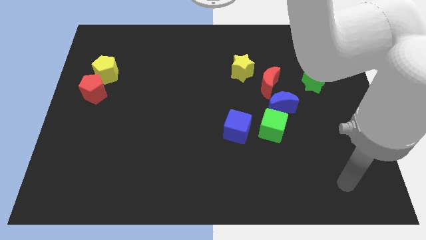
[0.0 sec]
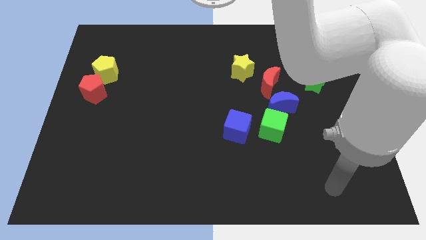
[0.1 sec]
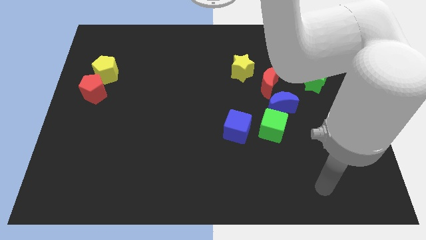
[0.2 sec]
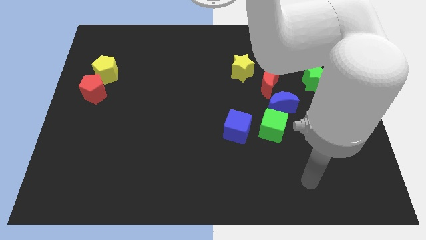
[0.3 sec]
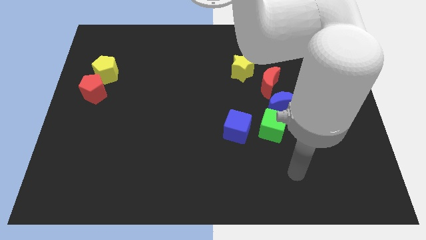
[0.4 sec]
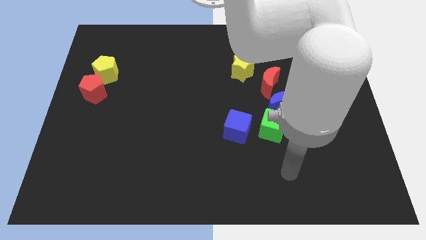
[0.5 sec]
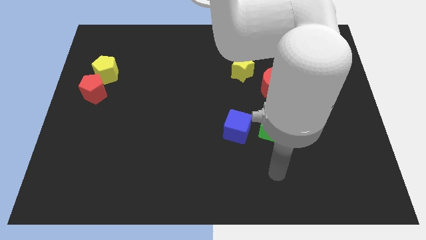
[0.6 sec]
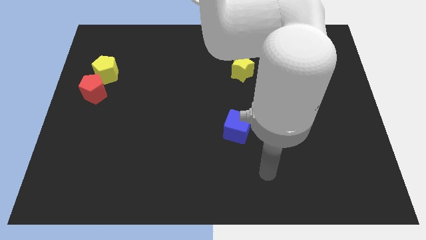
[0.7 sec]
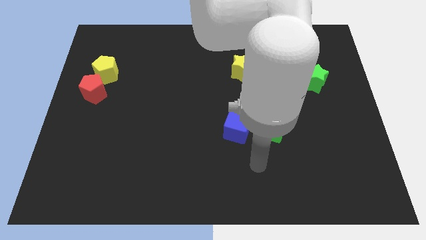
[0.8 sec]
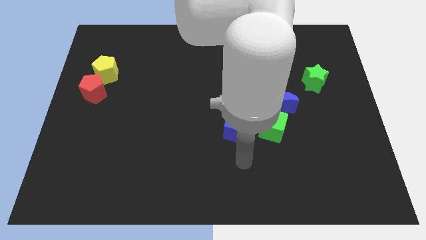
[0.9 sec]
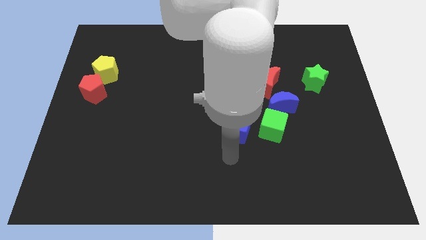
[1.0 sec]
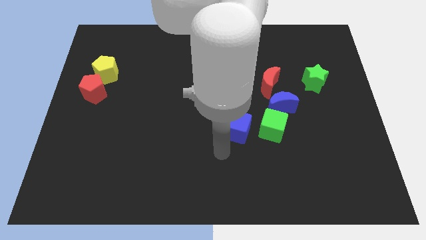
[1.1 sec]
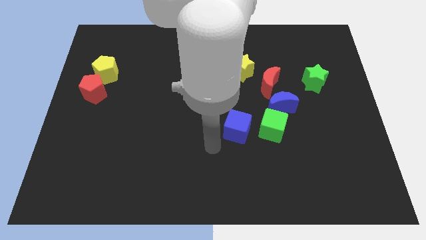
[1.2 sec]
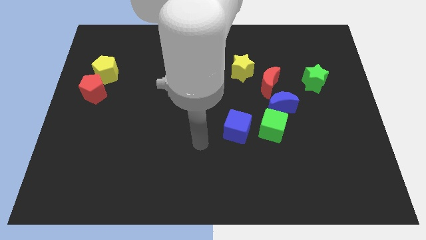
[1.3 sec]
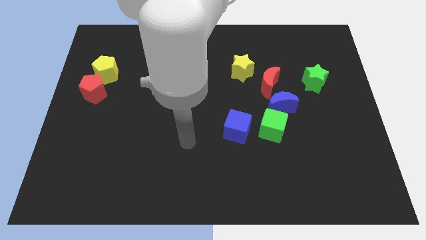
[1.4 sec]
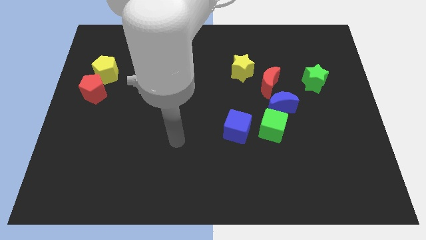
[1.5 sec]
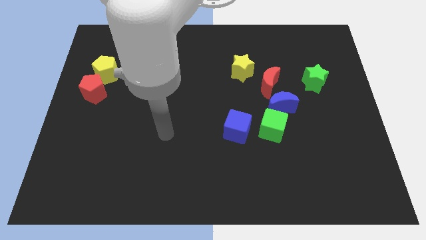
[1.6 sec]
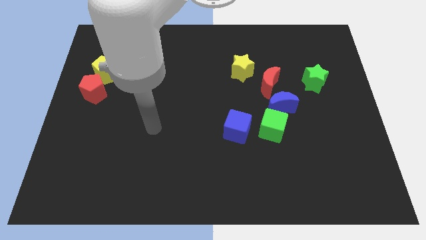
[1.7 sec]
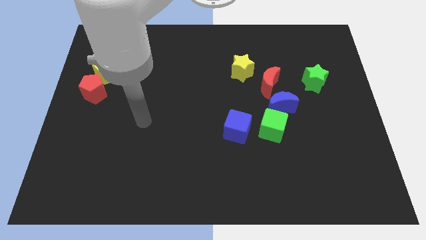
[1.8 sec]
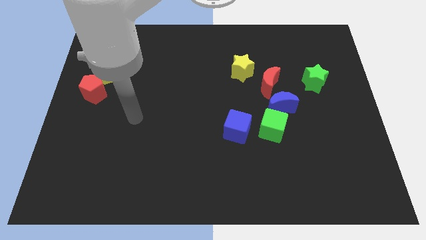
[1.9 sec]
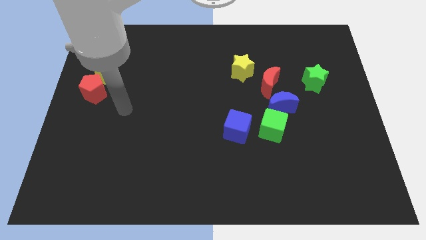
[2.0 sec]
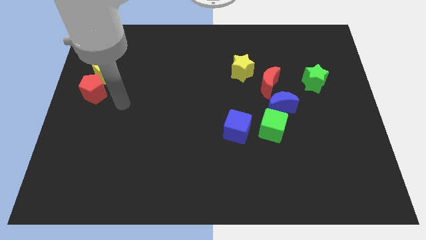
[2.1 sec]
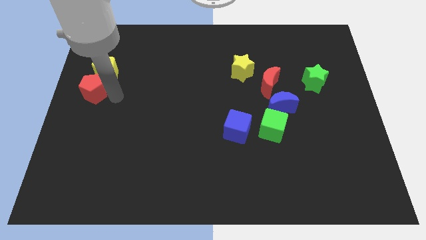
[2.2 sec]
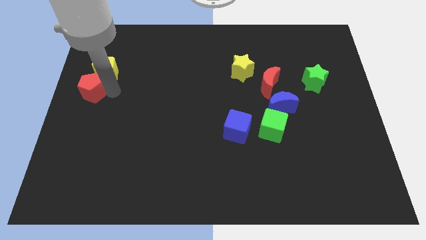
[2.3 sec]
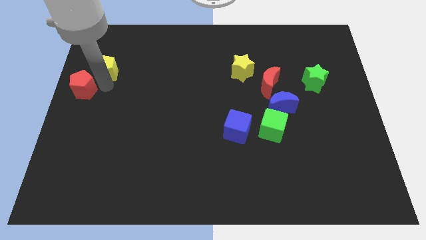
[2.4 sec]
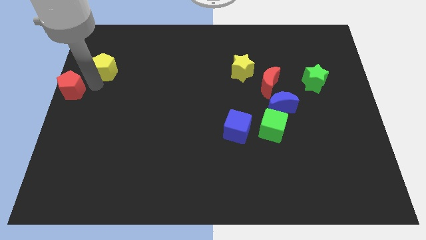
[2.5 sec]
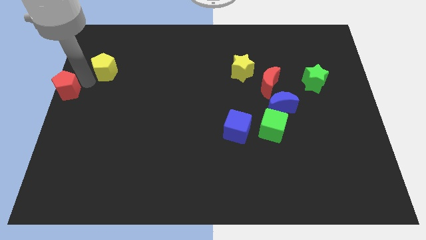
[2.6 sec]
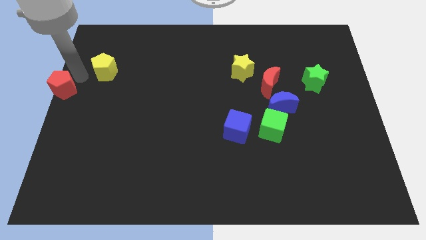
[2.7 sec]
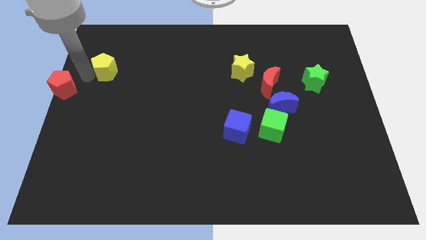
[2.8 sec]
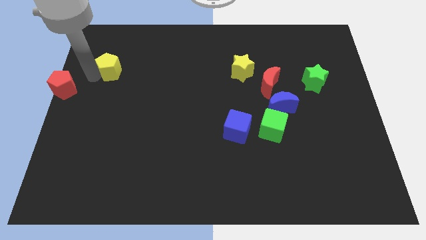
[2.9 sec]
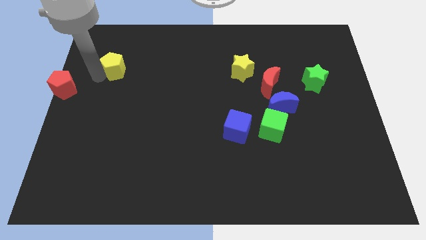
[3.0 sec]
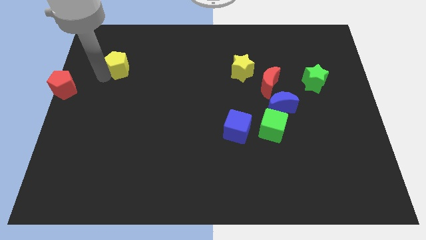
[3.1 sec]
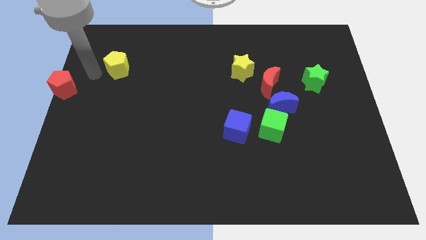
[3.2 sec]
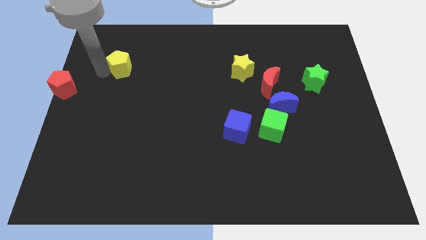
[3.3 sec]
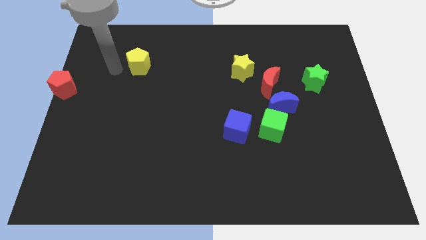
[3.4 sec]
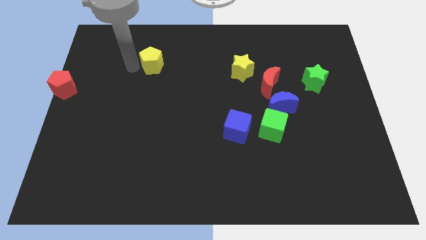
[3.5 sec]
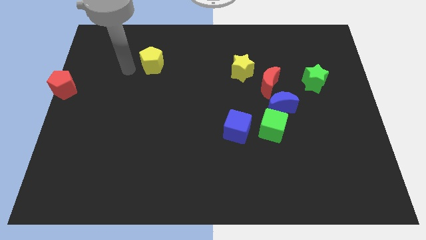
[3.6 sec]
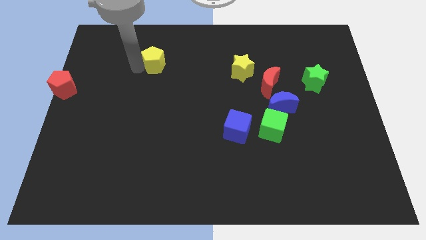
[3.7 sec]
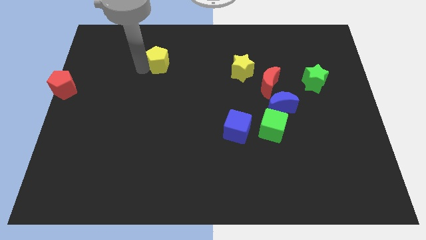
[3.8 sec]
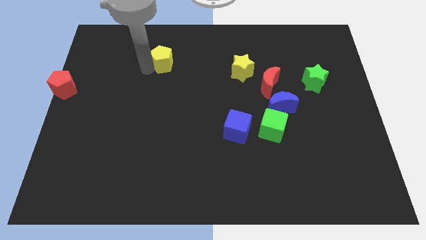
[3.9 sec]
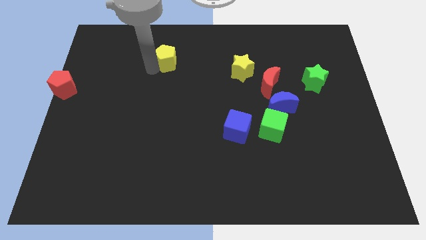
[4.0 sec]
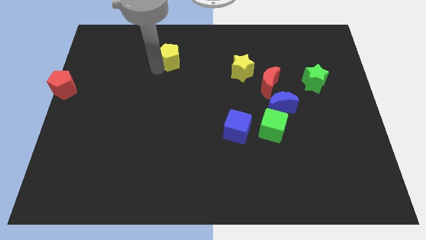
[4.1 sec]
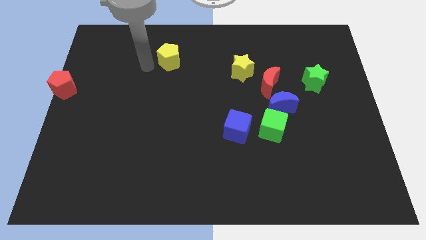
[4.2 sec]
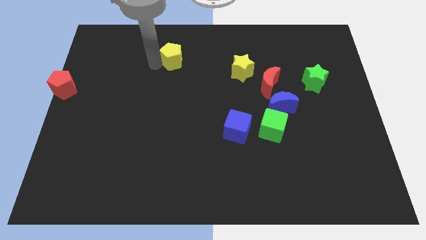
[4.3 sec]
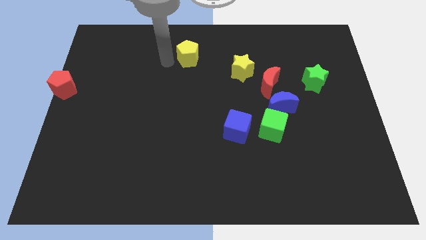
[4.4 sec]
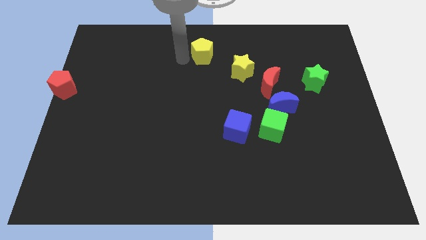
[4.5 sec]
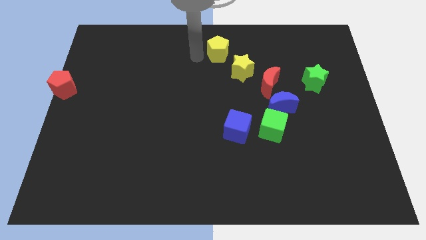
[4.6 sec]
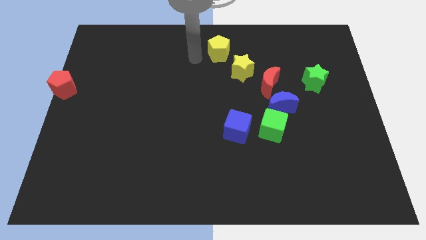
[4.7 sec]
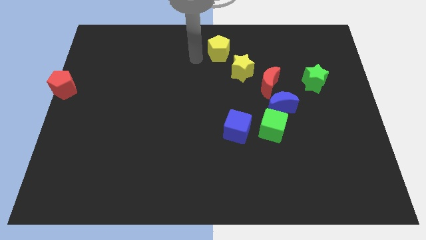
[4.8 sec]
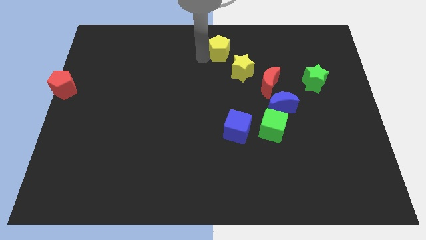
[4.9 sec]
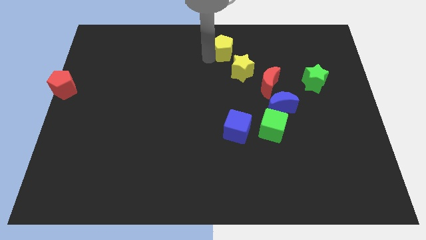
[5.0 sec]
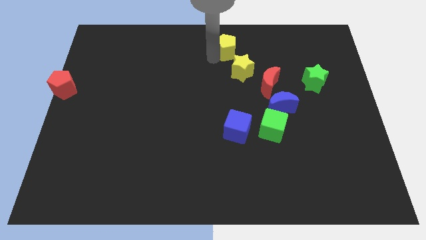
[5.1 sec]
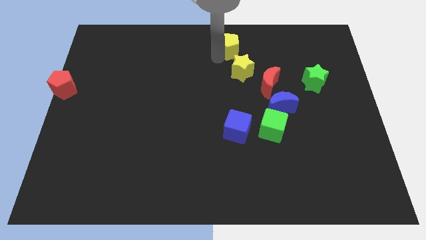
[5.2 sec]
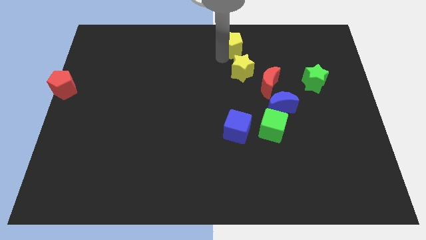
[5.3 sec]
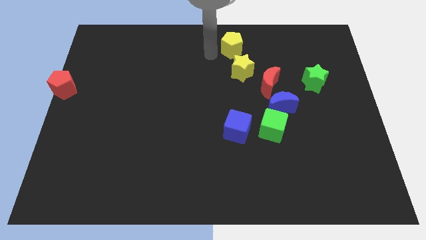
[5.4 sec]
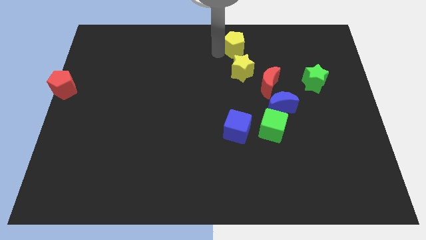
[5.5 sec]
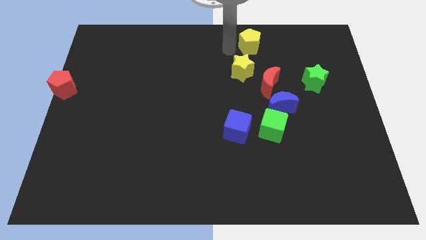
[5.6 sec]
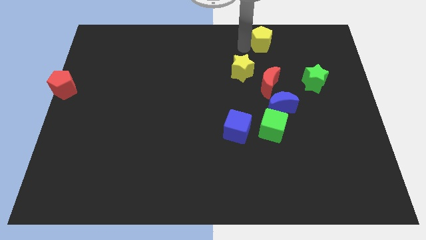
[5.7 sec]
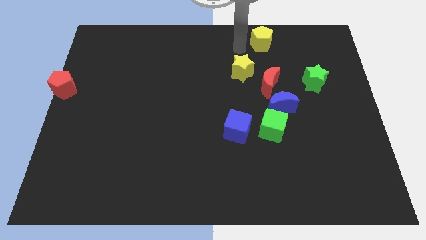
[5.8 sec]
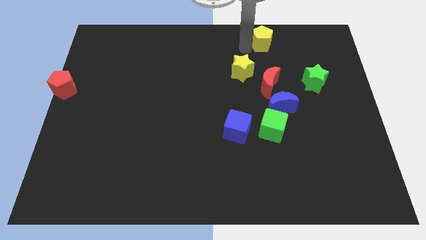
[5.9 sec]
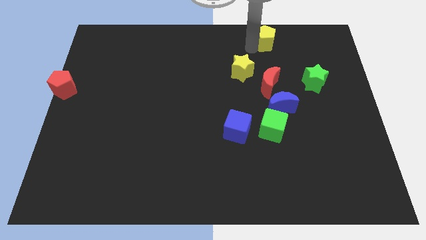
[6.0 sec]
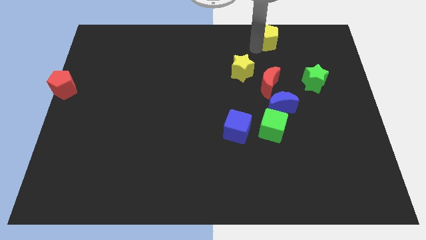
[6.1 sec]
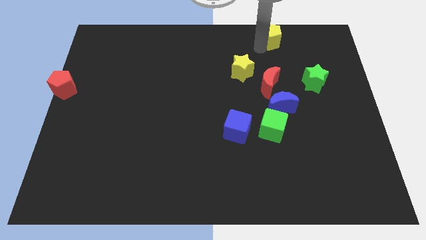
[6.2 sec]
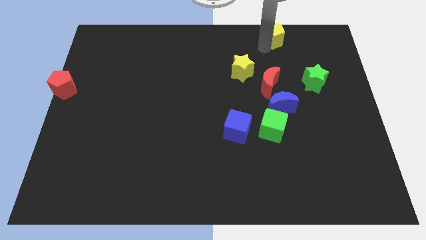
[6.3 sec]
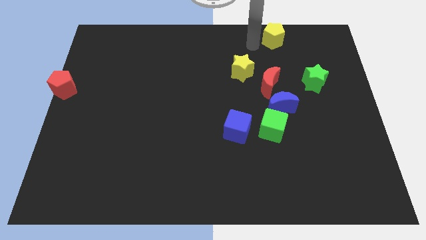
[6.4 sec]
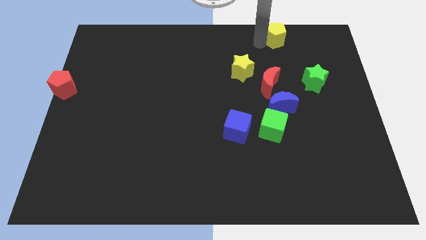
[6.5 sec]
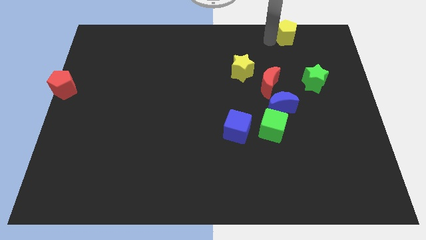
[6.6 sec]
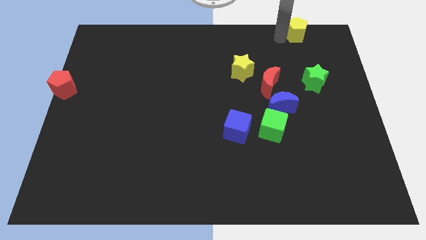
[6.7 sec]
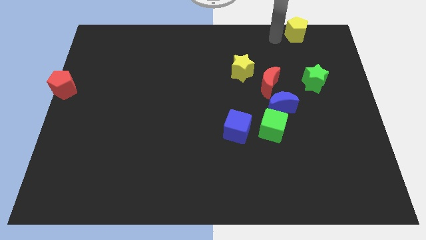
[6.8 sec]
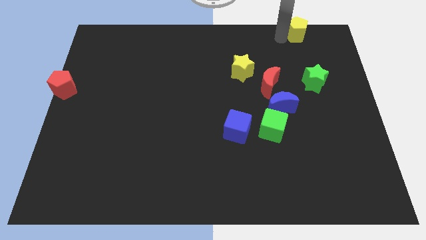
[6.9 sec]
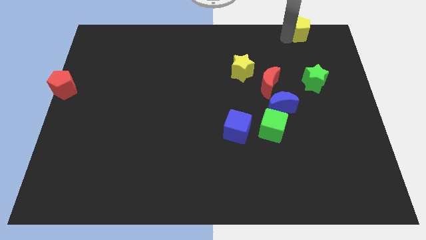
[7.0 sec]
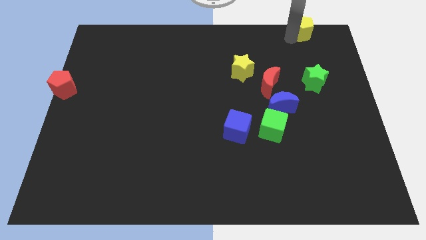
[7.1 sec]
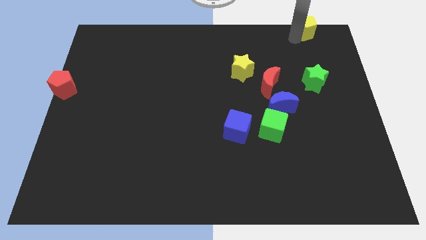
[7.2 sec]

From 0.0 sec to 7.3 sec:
slide the yellow pentagon to the top right
